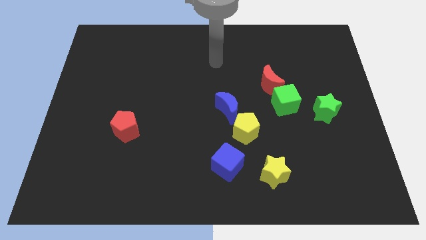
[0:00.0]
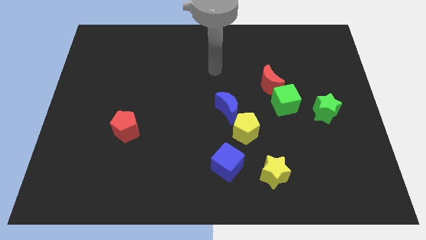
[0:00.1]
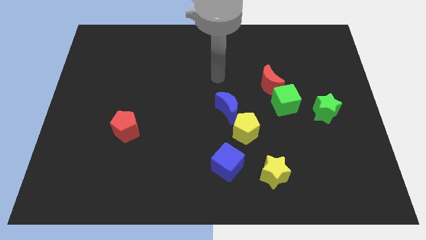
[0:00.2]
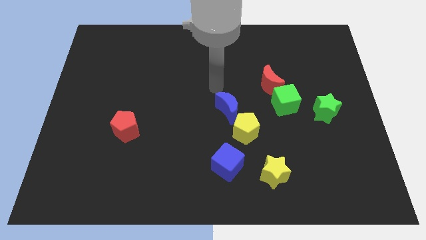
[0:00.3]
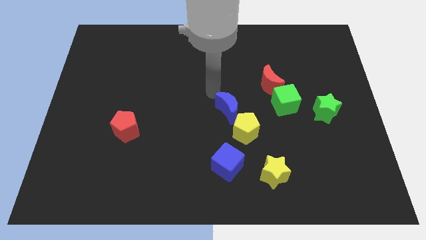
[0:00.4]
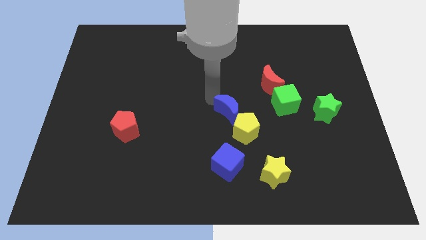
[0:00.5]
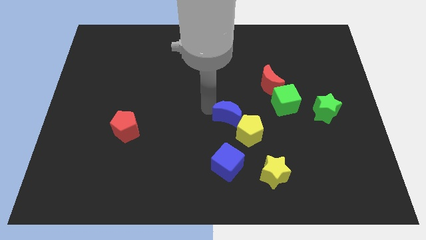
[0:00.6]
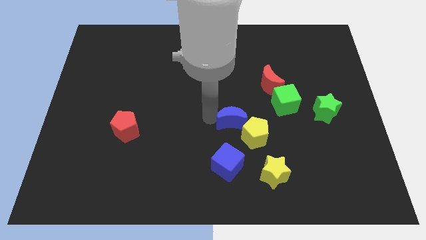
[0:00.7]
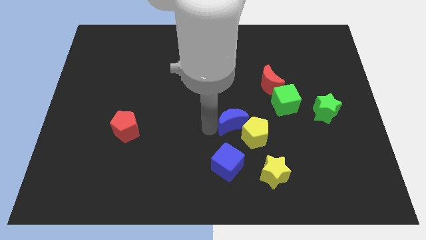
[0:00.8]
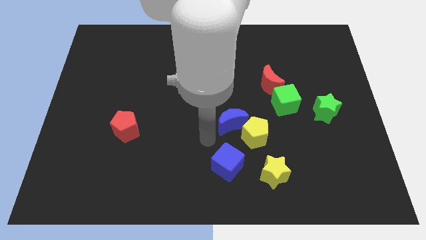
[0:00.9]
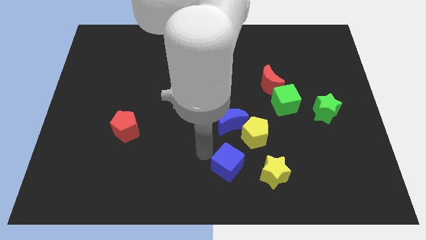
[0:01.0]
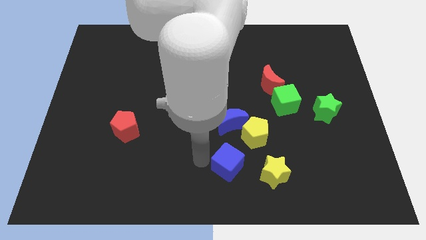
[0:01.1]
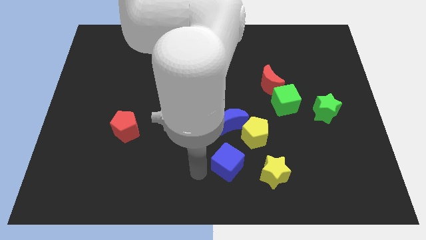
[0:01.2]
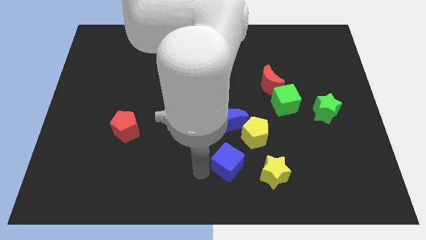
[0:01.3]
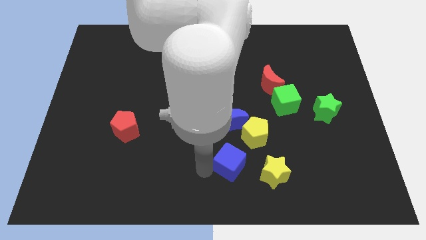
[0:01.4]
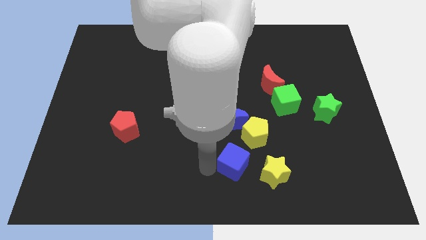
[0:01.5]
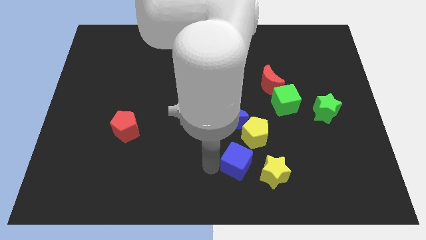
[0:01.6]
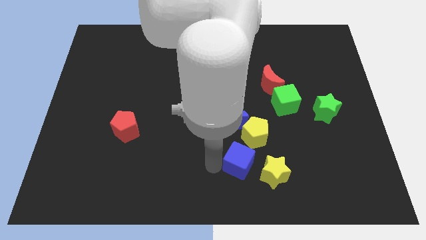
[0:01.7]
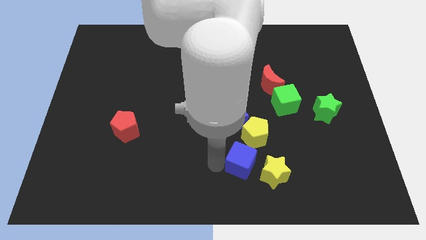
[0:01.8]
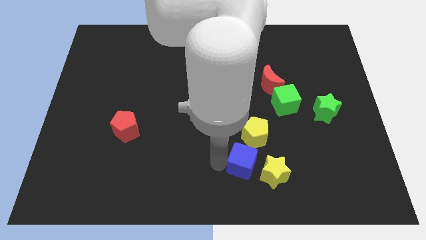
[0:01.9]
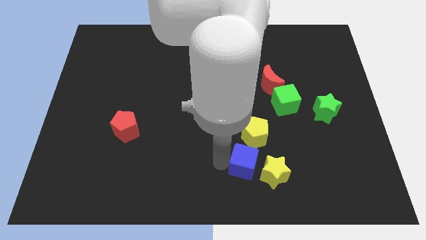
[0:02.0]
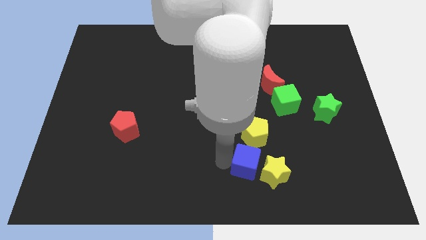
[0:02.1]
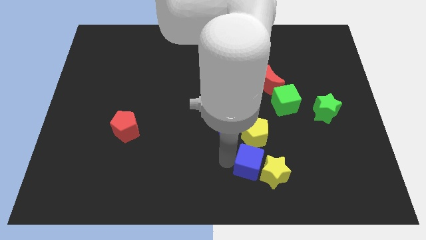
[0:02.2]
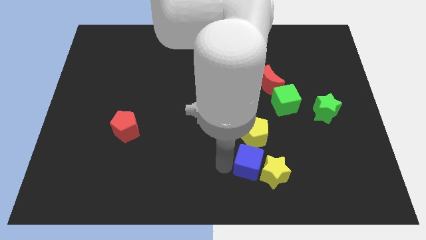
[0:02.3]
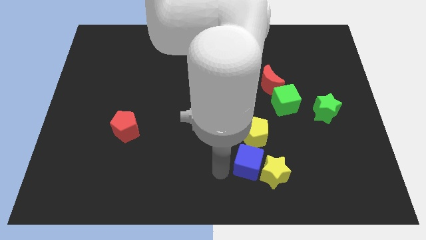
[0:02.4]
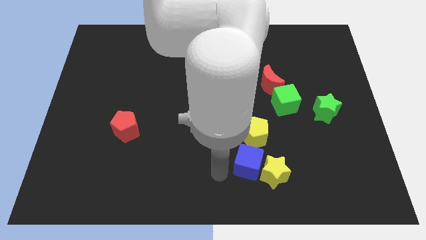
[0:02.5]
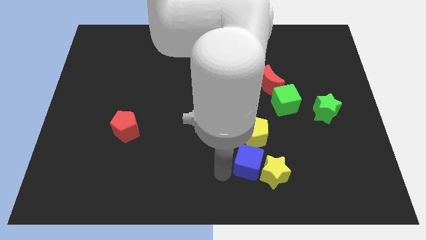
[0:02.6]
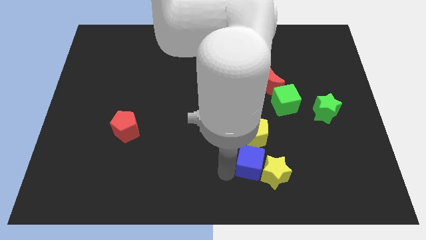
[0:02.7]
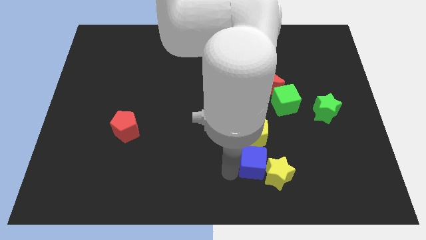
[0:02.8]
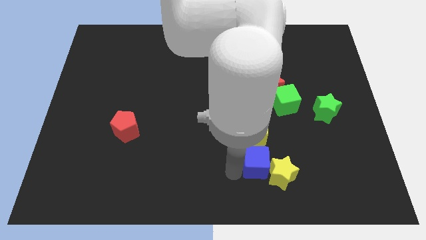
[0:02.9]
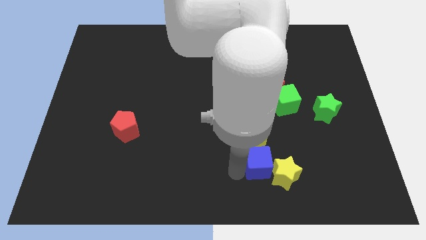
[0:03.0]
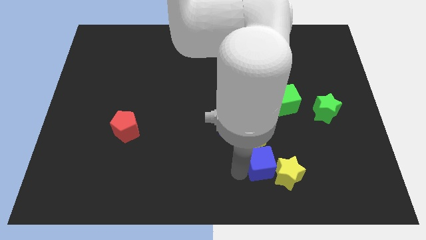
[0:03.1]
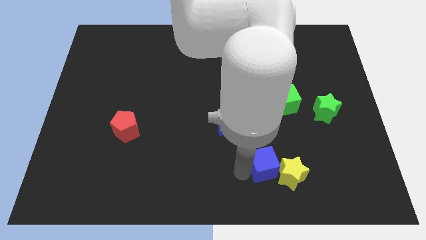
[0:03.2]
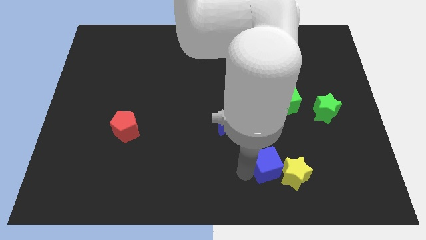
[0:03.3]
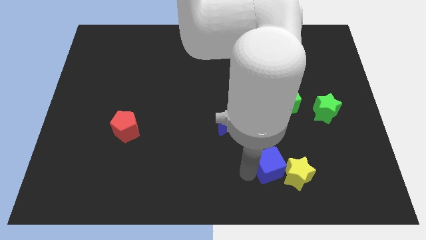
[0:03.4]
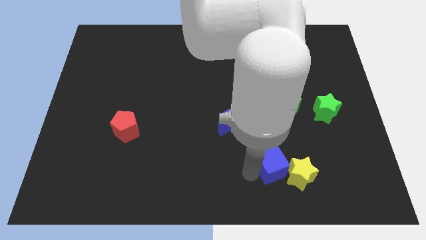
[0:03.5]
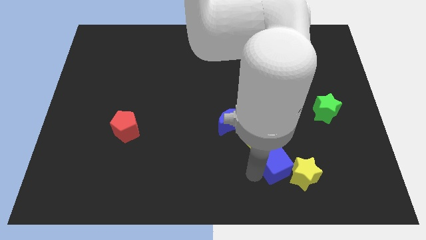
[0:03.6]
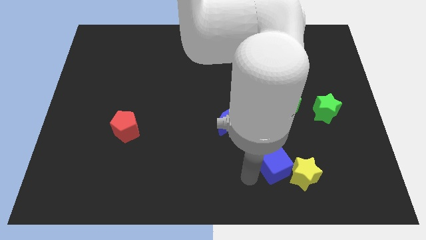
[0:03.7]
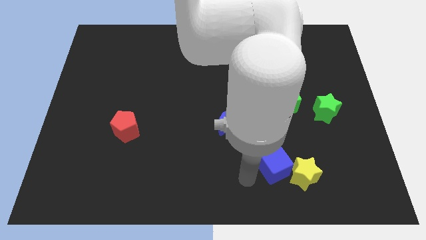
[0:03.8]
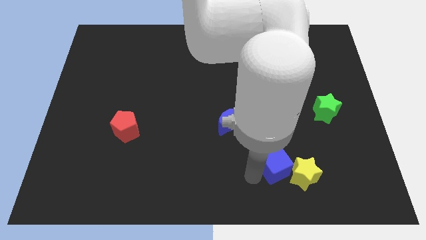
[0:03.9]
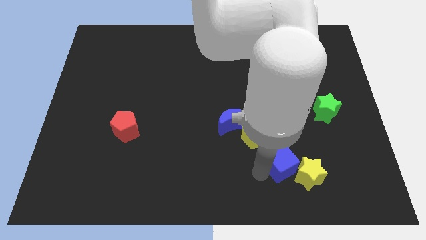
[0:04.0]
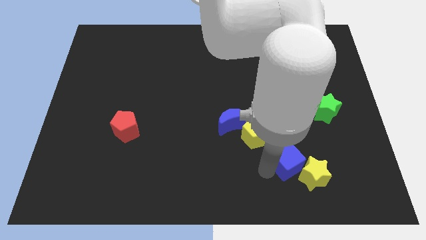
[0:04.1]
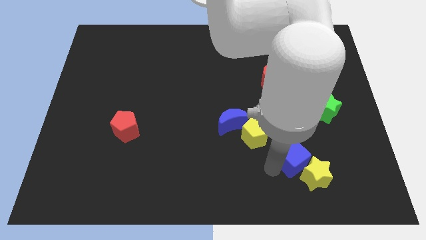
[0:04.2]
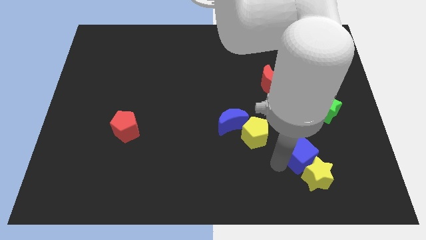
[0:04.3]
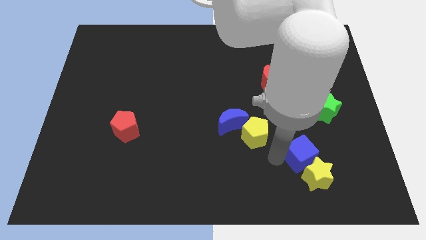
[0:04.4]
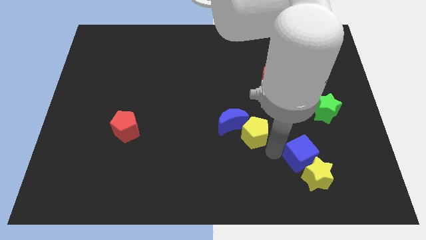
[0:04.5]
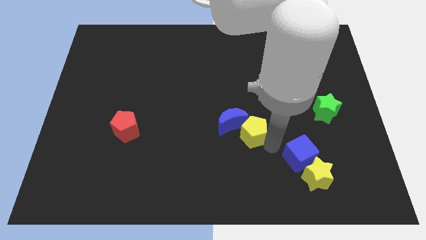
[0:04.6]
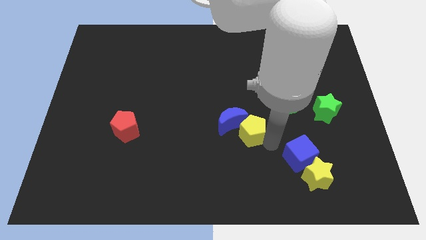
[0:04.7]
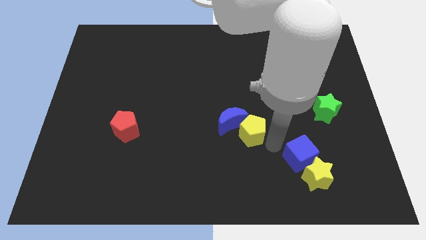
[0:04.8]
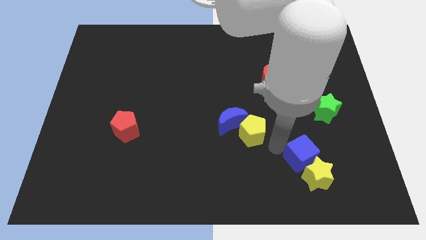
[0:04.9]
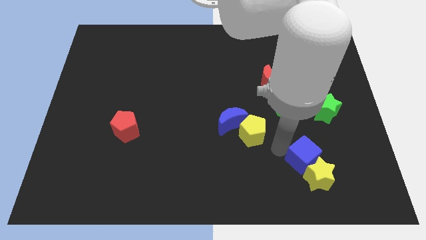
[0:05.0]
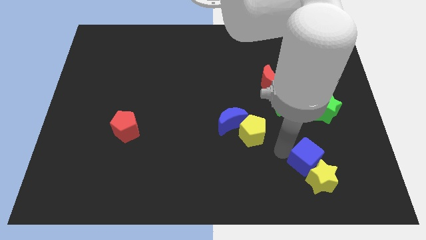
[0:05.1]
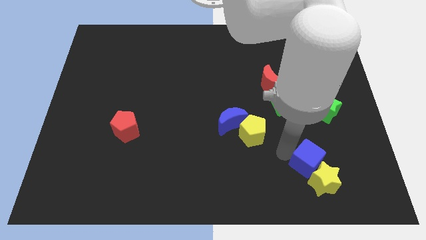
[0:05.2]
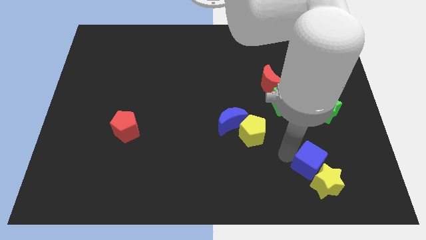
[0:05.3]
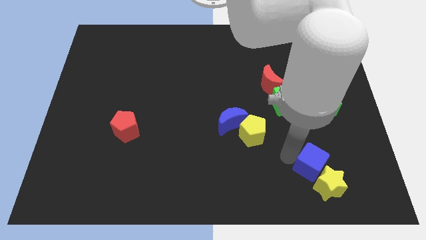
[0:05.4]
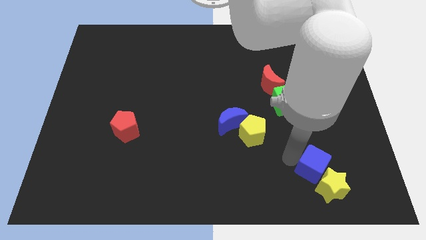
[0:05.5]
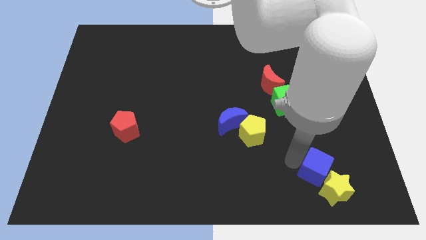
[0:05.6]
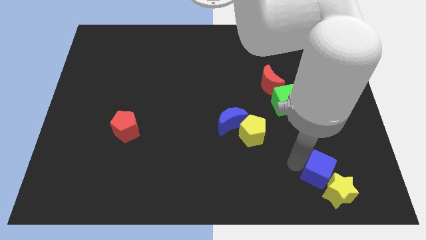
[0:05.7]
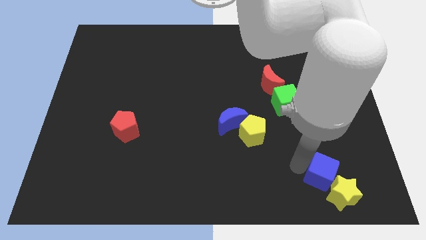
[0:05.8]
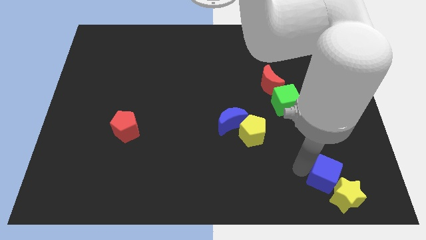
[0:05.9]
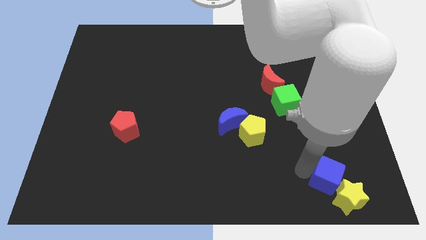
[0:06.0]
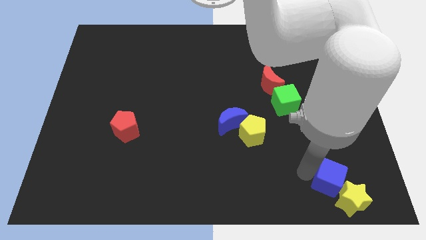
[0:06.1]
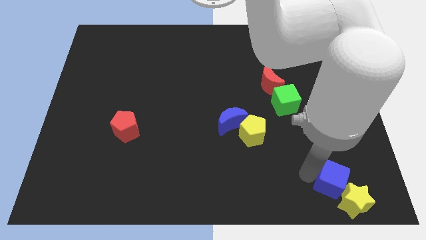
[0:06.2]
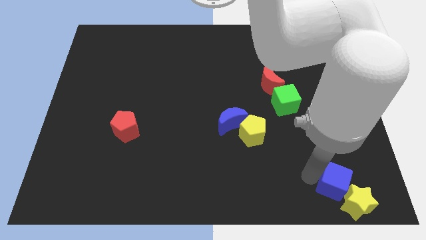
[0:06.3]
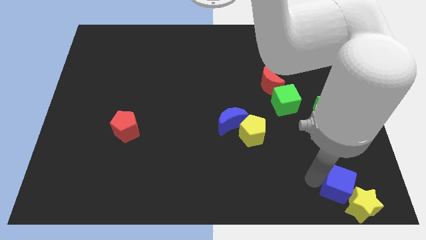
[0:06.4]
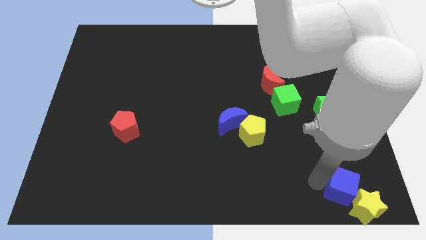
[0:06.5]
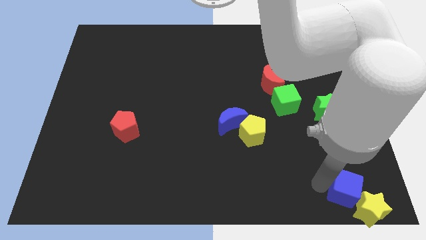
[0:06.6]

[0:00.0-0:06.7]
put the blue cube to the bottom right
